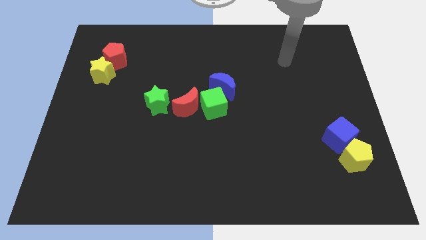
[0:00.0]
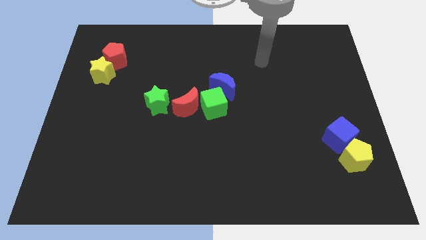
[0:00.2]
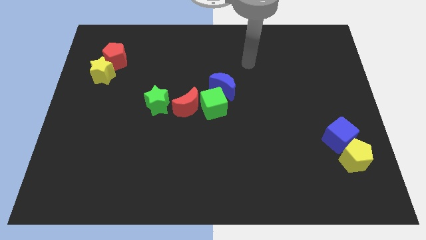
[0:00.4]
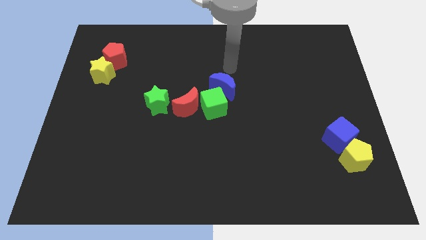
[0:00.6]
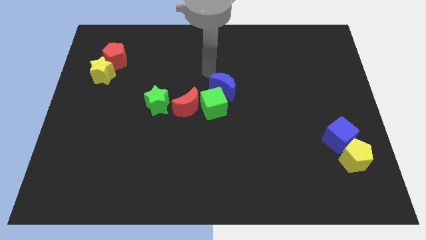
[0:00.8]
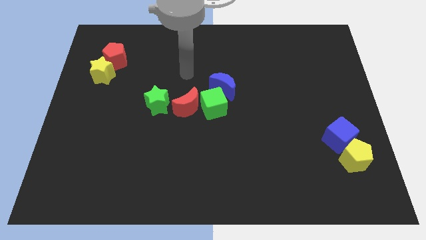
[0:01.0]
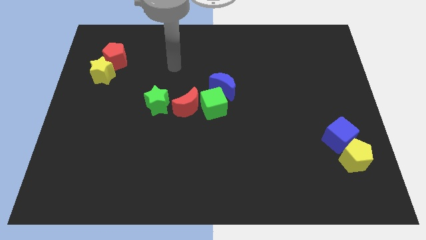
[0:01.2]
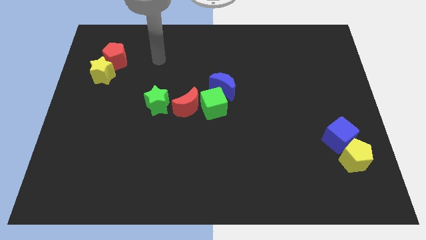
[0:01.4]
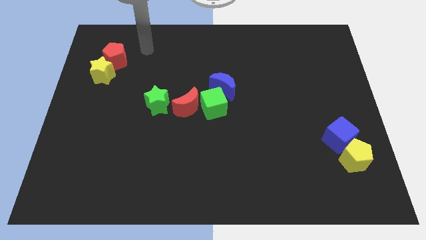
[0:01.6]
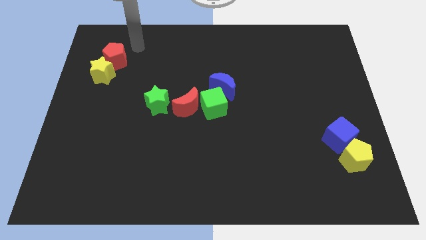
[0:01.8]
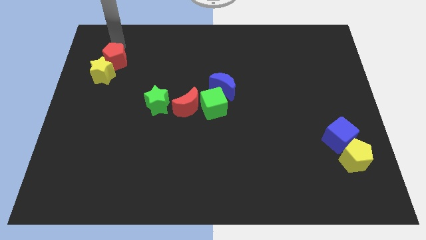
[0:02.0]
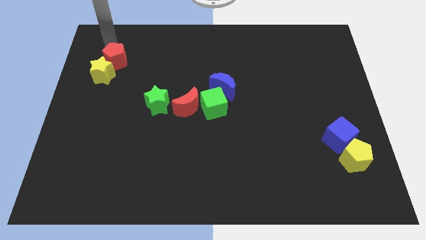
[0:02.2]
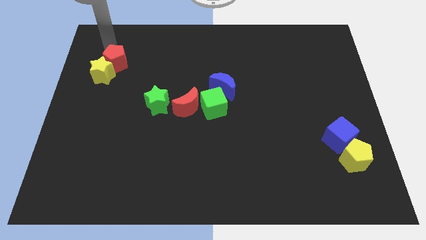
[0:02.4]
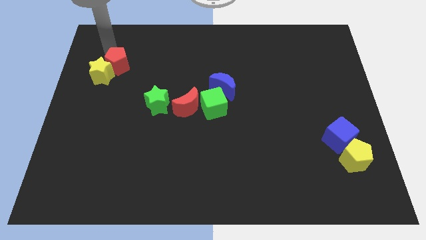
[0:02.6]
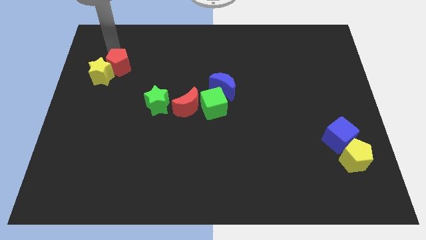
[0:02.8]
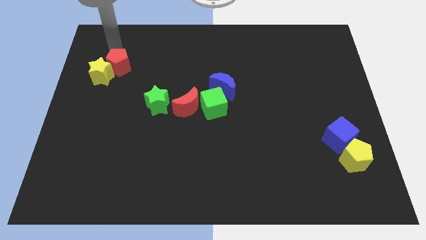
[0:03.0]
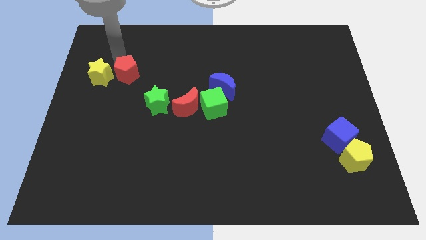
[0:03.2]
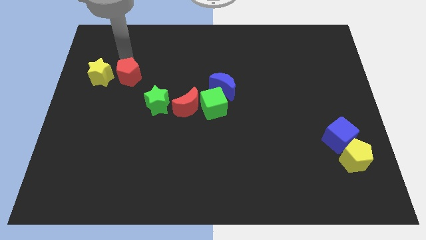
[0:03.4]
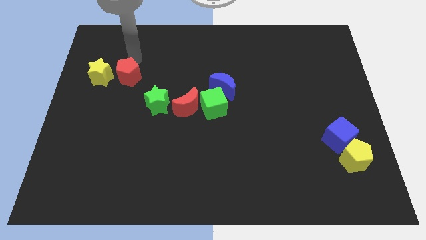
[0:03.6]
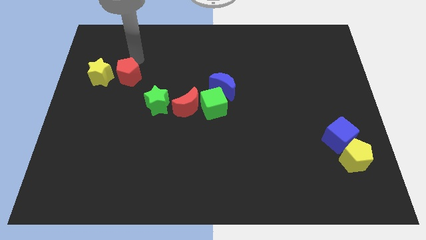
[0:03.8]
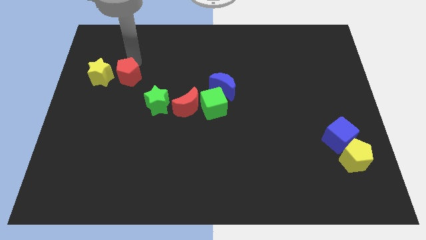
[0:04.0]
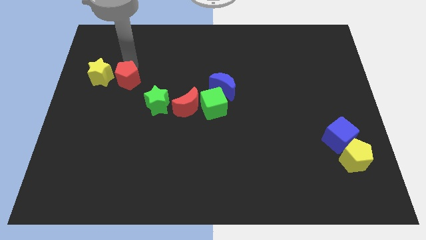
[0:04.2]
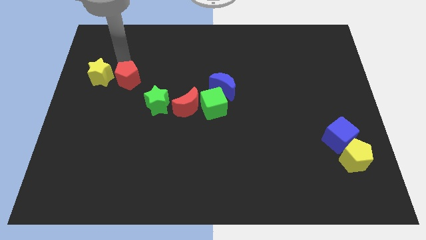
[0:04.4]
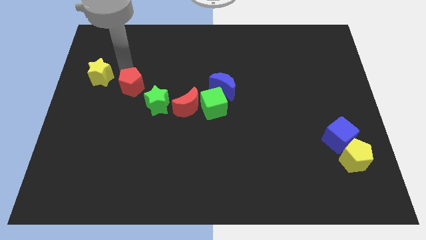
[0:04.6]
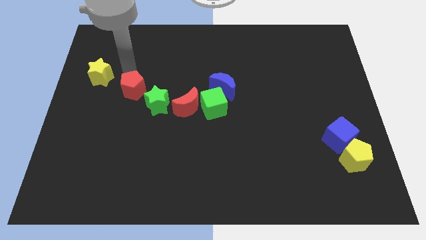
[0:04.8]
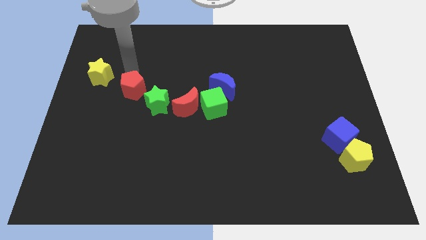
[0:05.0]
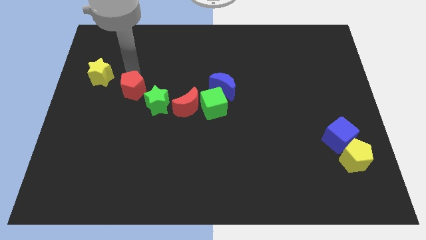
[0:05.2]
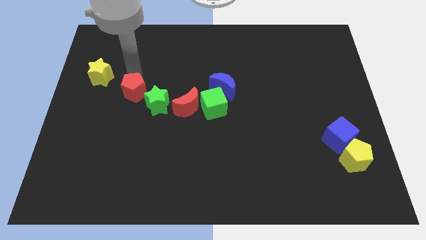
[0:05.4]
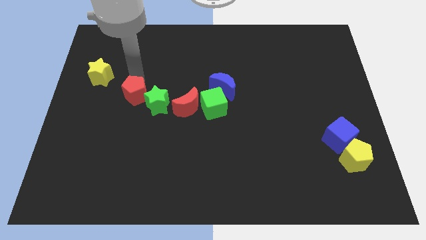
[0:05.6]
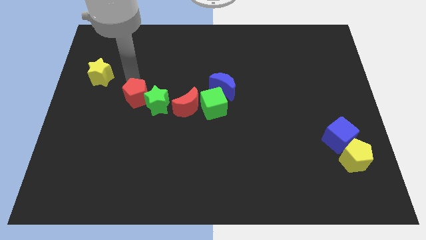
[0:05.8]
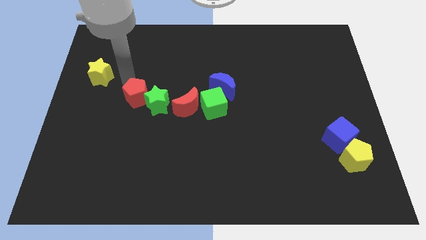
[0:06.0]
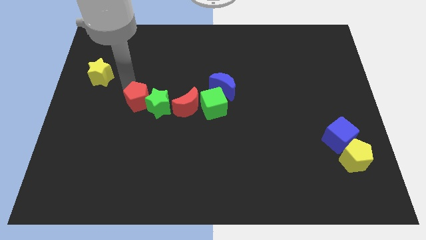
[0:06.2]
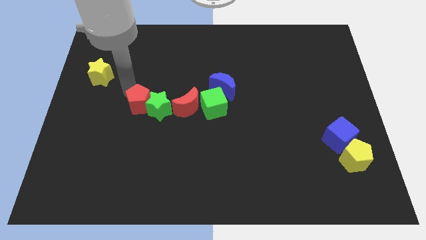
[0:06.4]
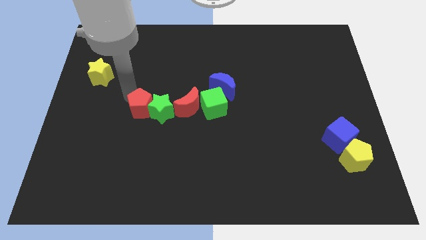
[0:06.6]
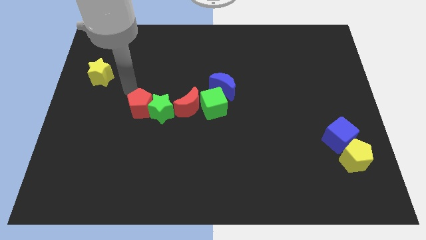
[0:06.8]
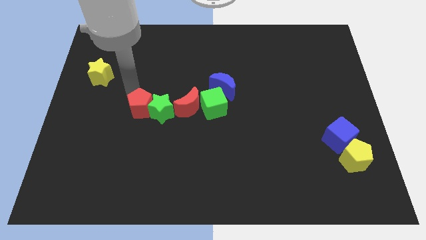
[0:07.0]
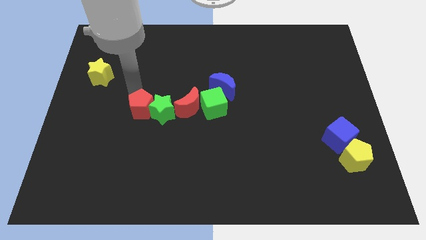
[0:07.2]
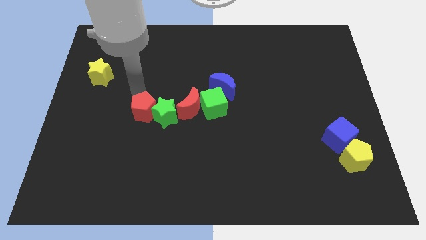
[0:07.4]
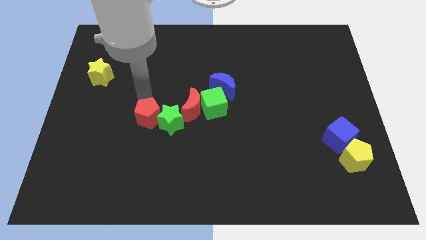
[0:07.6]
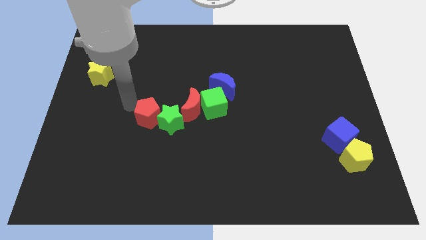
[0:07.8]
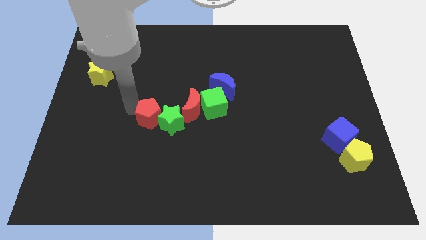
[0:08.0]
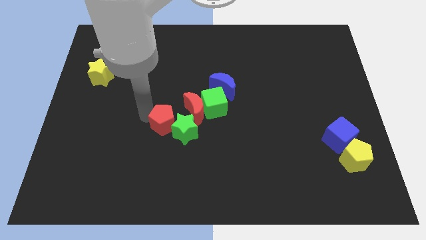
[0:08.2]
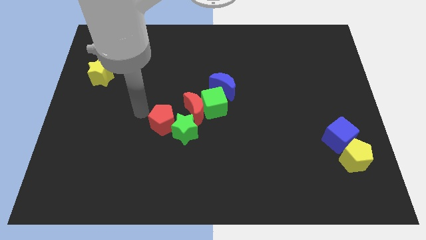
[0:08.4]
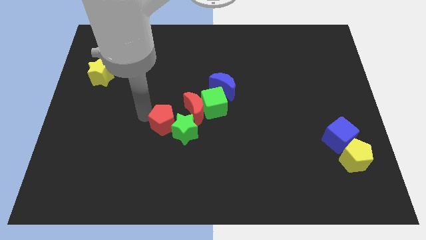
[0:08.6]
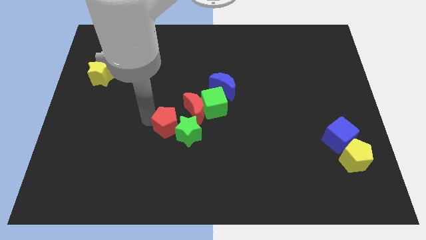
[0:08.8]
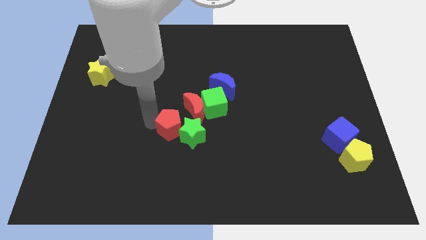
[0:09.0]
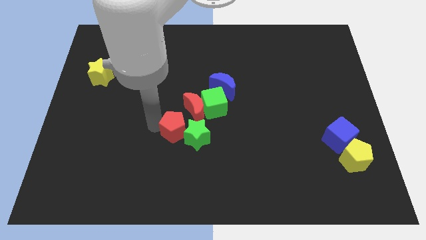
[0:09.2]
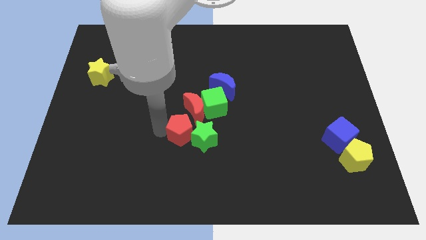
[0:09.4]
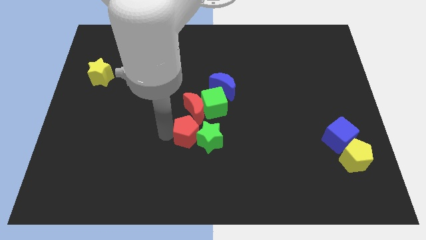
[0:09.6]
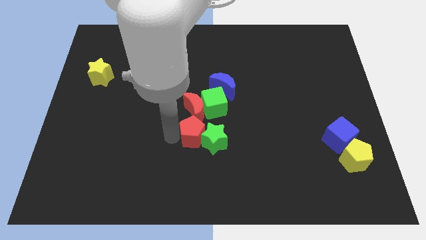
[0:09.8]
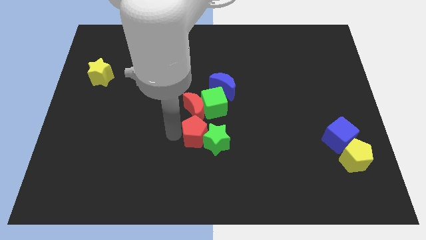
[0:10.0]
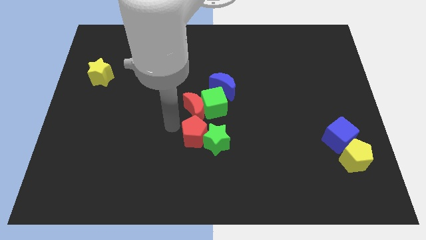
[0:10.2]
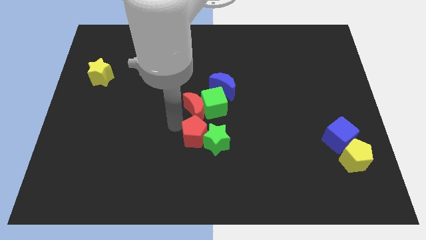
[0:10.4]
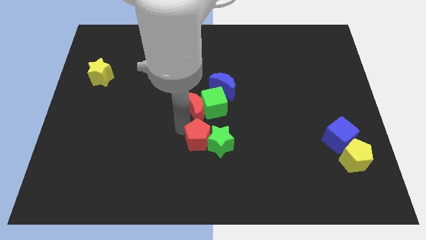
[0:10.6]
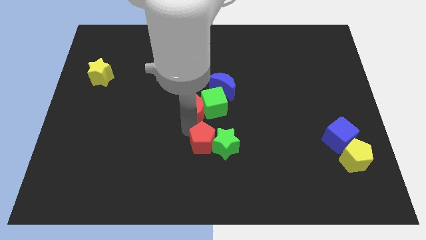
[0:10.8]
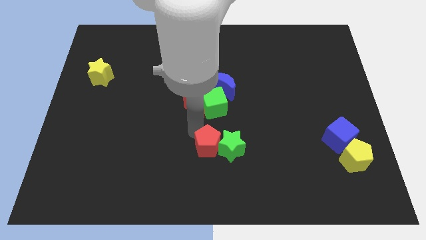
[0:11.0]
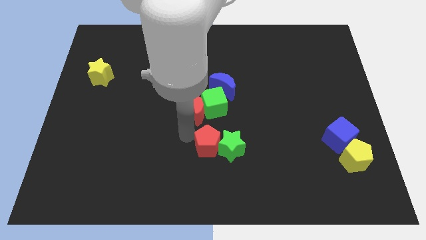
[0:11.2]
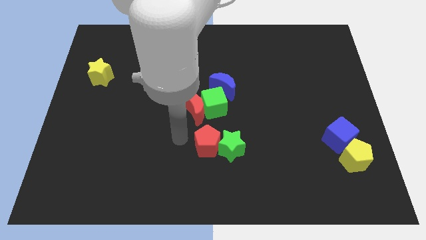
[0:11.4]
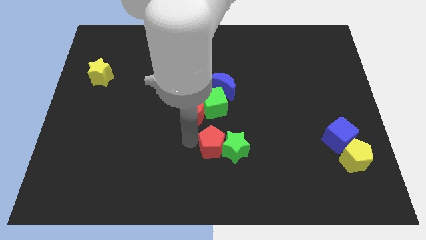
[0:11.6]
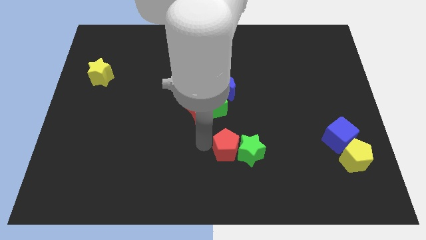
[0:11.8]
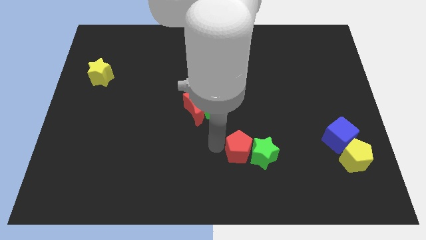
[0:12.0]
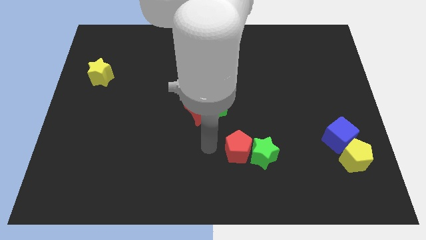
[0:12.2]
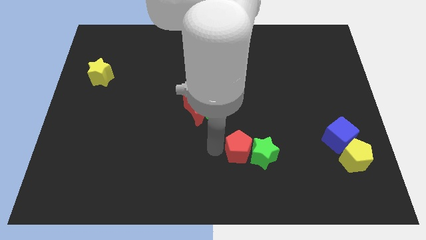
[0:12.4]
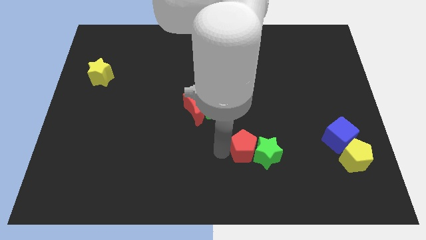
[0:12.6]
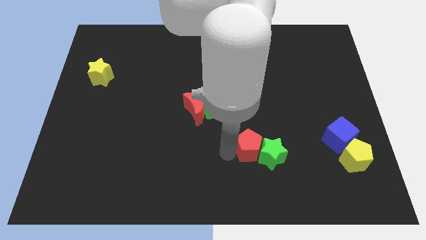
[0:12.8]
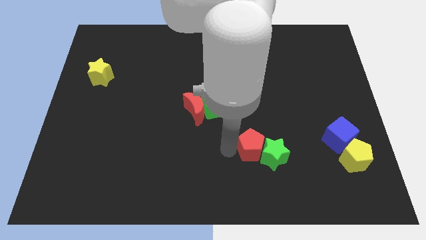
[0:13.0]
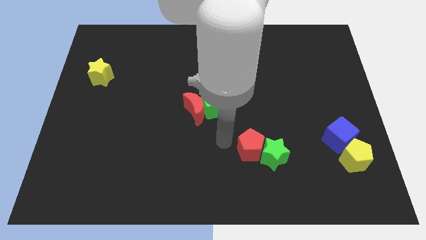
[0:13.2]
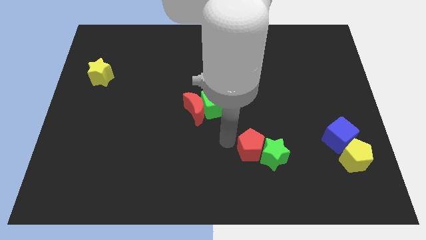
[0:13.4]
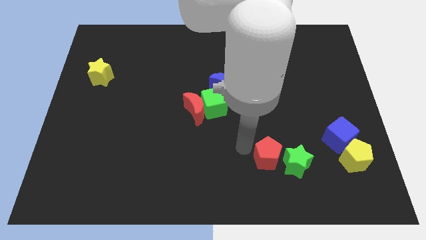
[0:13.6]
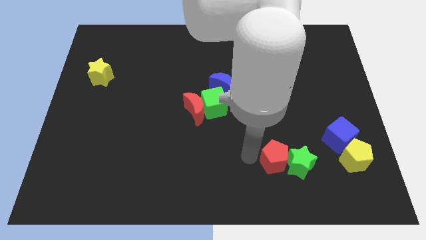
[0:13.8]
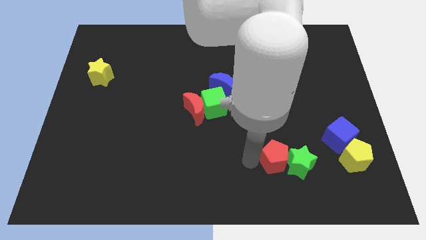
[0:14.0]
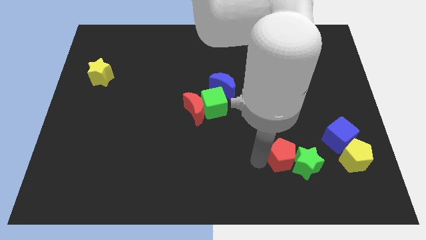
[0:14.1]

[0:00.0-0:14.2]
push the red pentagon left of the yellow pentagon

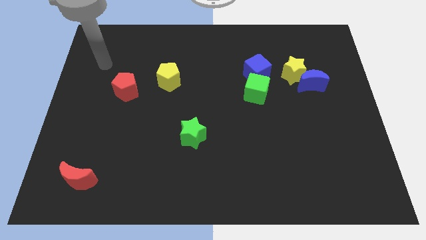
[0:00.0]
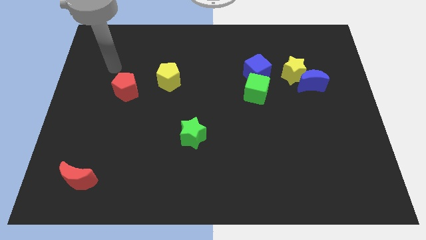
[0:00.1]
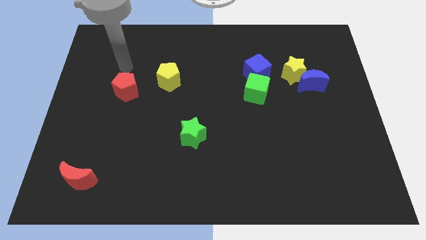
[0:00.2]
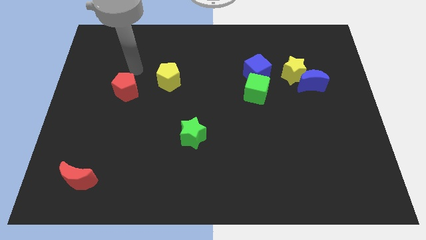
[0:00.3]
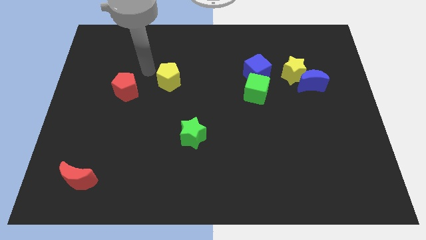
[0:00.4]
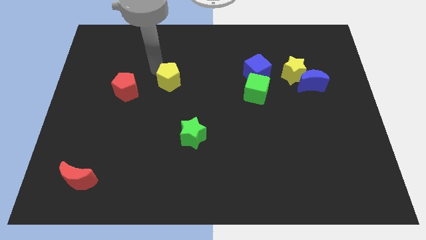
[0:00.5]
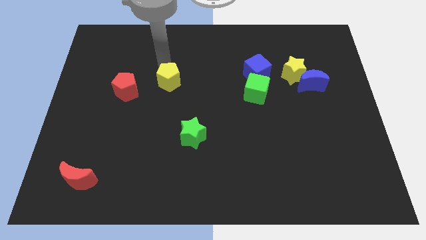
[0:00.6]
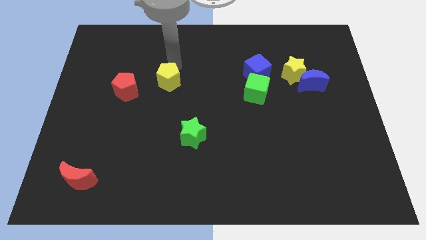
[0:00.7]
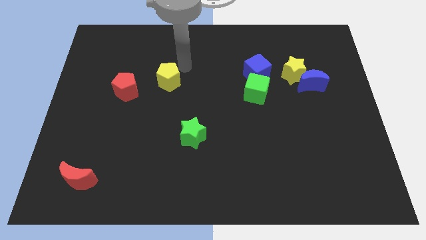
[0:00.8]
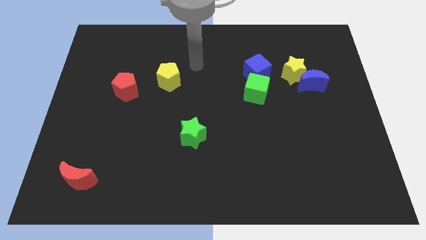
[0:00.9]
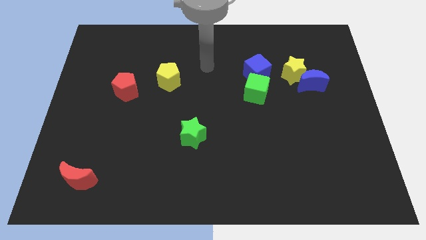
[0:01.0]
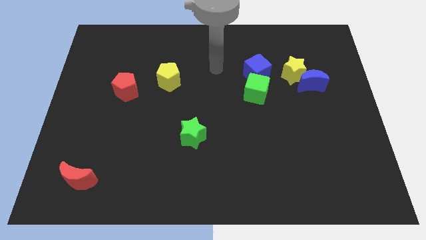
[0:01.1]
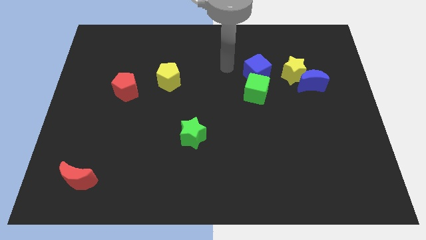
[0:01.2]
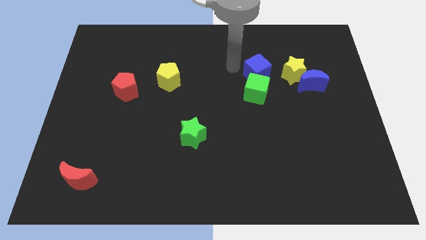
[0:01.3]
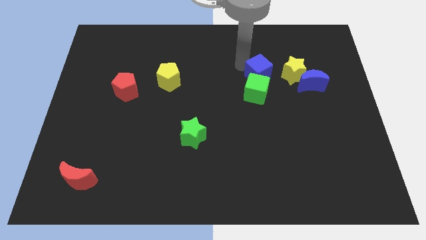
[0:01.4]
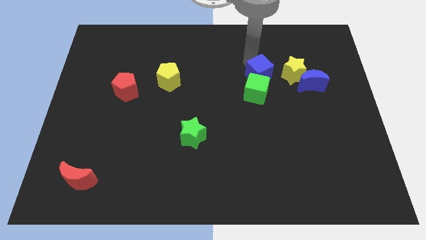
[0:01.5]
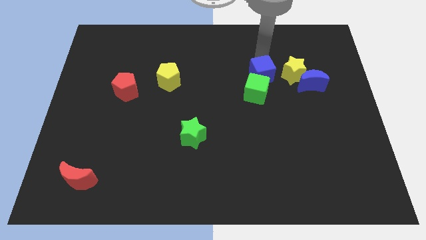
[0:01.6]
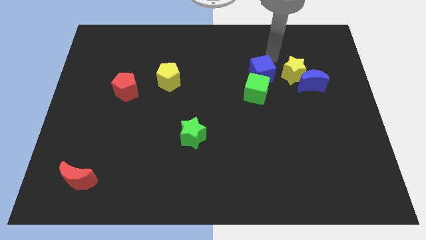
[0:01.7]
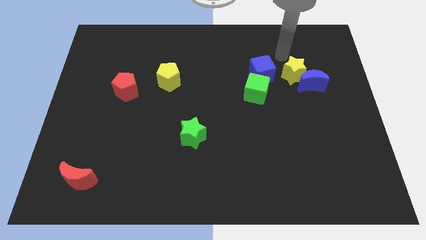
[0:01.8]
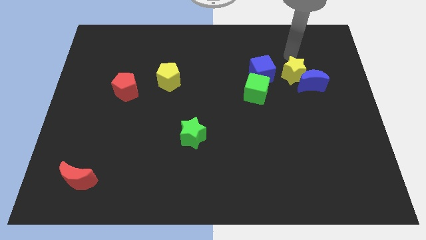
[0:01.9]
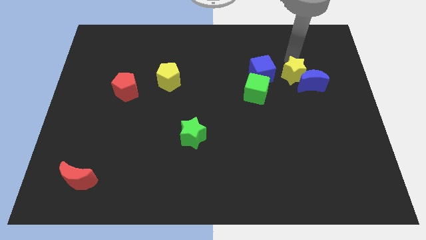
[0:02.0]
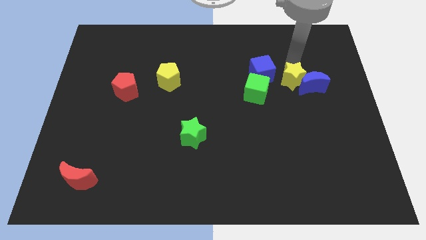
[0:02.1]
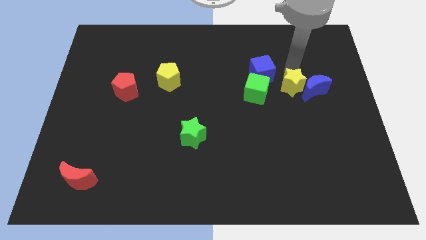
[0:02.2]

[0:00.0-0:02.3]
put the yellow star to the bottom left of the blue moon
